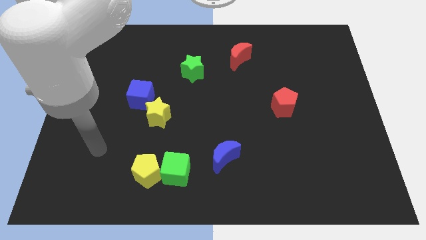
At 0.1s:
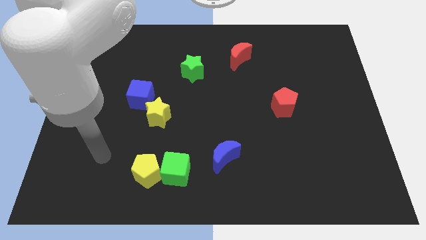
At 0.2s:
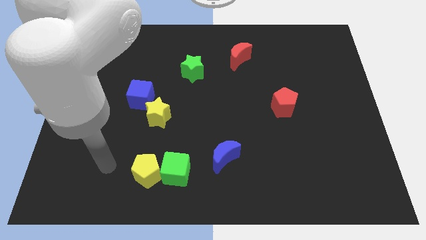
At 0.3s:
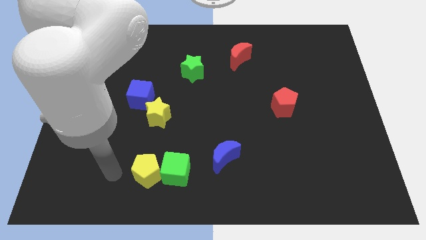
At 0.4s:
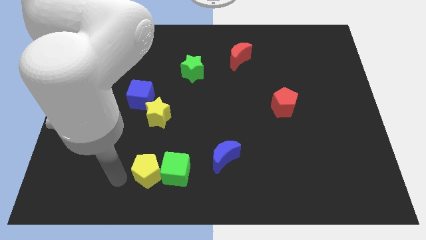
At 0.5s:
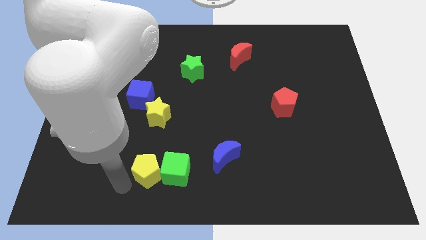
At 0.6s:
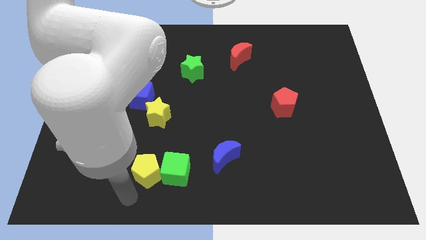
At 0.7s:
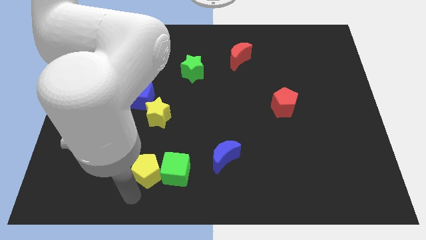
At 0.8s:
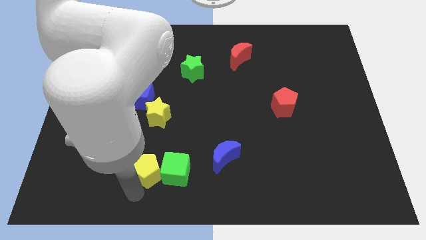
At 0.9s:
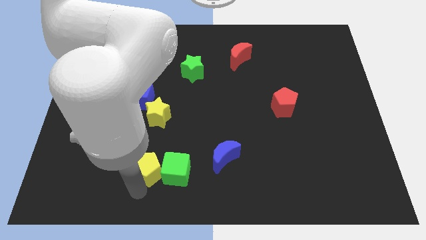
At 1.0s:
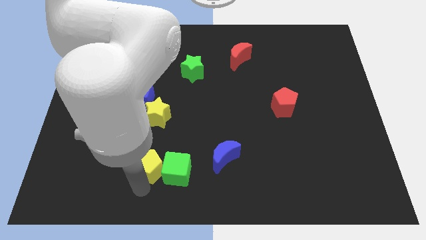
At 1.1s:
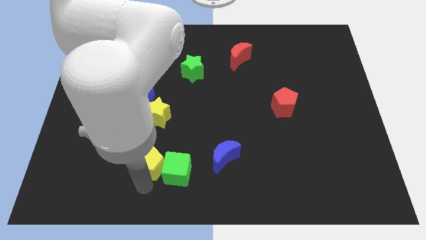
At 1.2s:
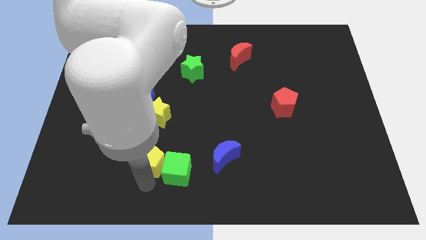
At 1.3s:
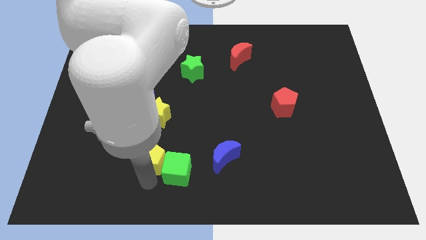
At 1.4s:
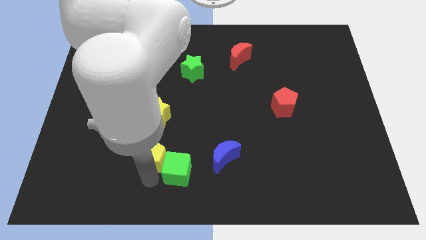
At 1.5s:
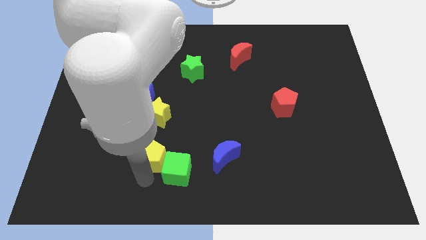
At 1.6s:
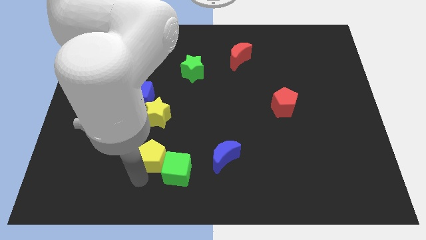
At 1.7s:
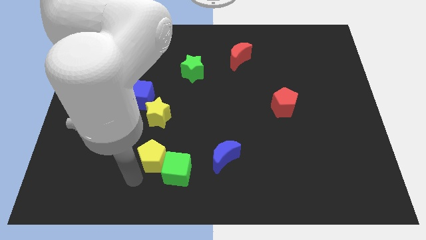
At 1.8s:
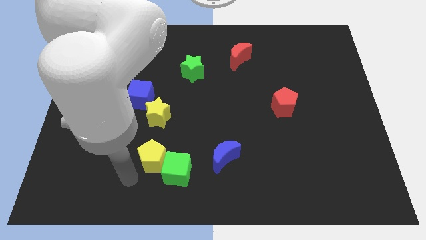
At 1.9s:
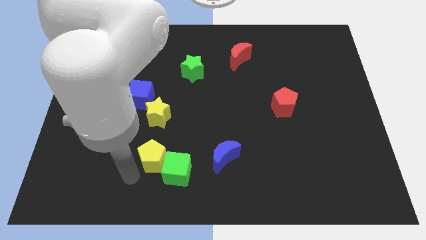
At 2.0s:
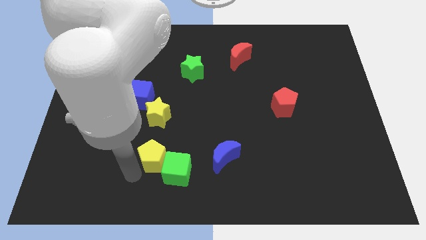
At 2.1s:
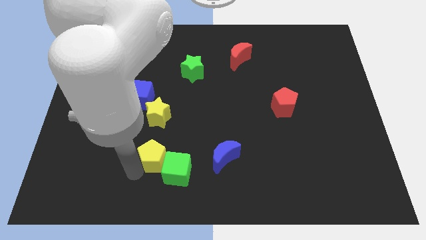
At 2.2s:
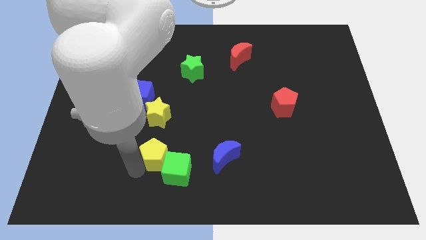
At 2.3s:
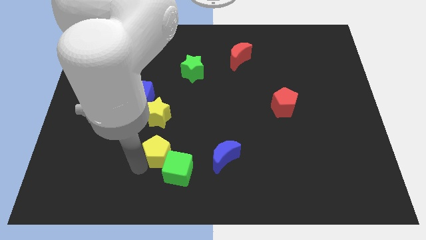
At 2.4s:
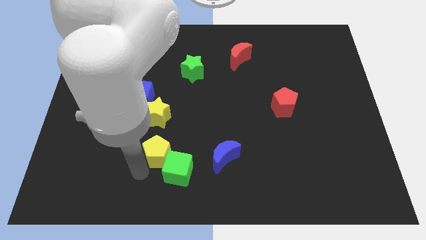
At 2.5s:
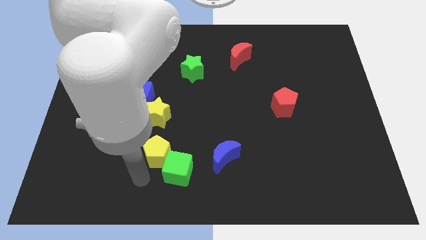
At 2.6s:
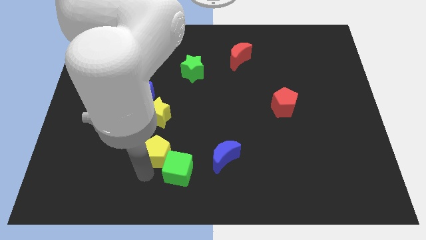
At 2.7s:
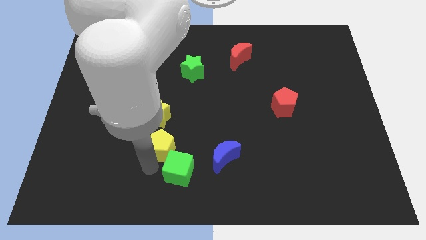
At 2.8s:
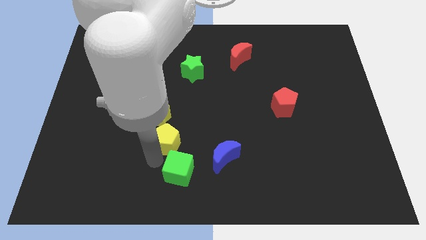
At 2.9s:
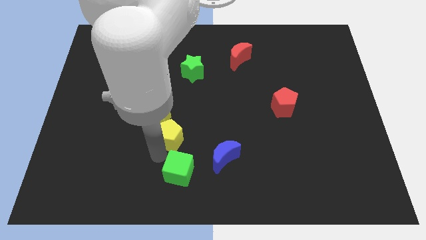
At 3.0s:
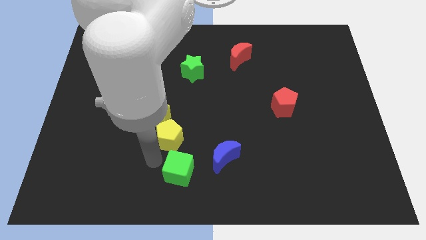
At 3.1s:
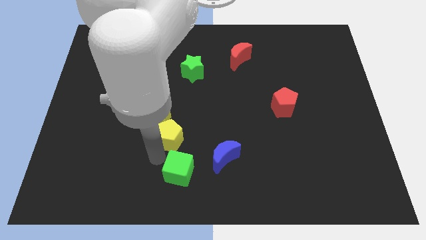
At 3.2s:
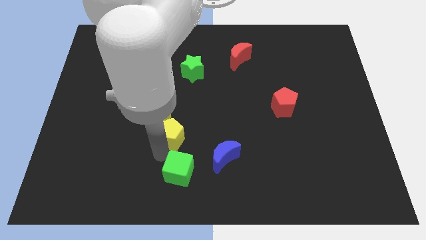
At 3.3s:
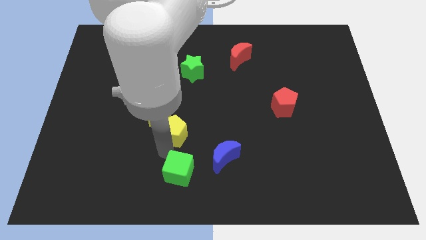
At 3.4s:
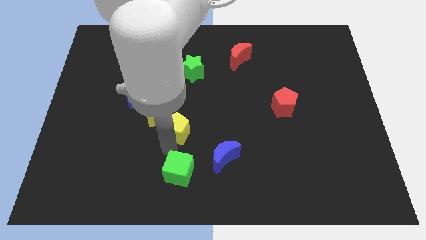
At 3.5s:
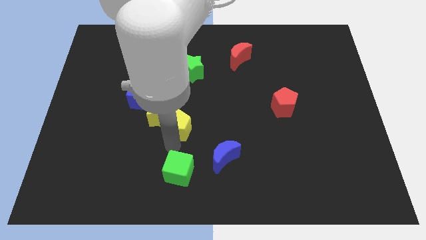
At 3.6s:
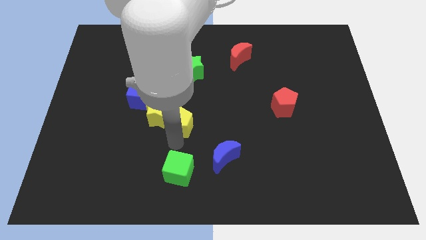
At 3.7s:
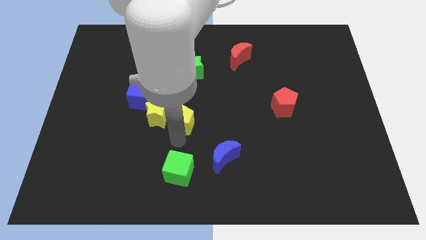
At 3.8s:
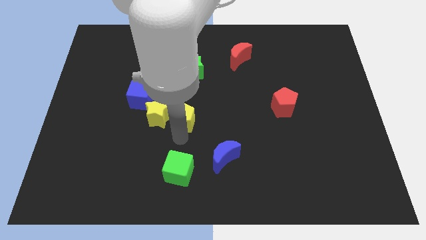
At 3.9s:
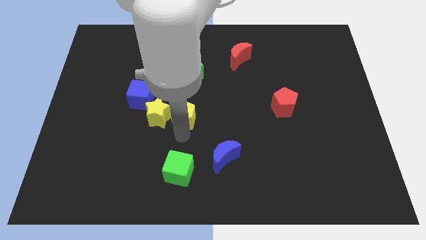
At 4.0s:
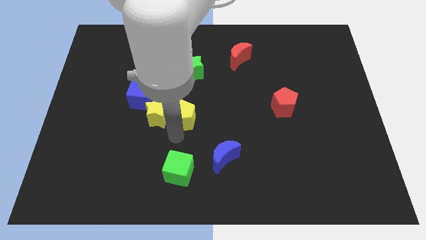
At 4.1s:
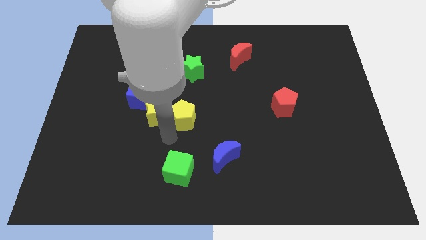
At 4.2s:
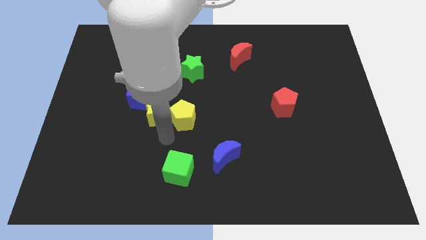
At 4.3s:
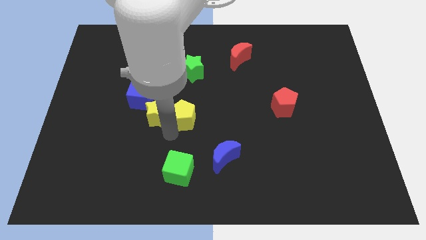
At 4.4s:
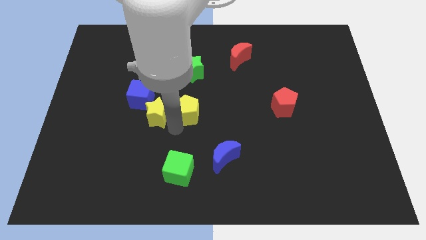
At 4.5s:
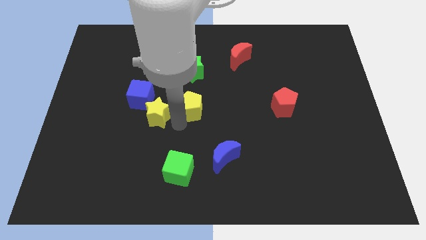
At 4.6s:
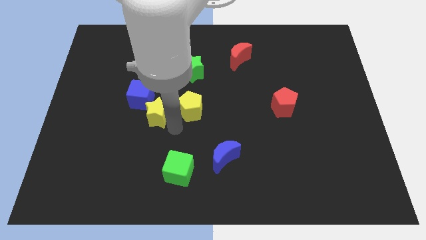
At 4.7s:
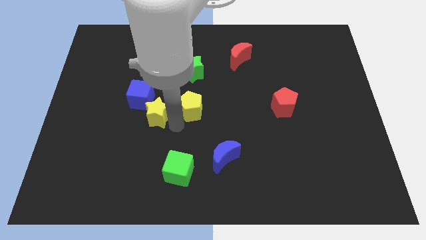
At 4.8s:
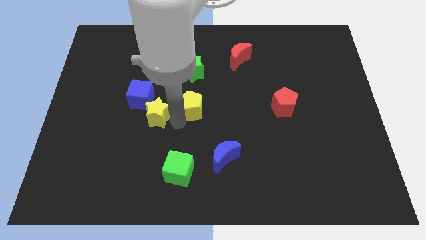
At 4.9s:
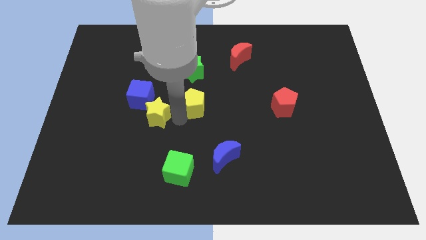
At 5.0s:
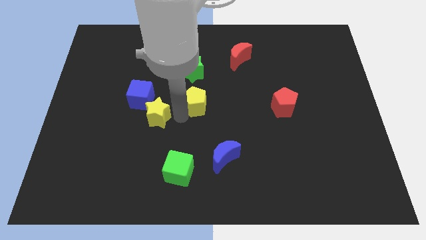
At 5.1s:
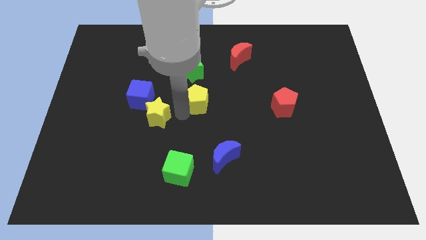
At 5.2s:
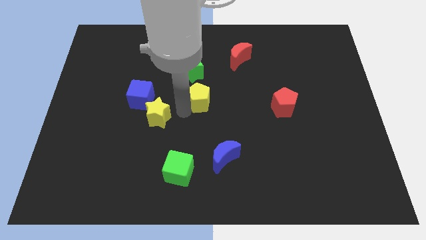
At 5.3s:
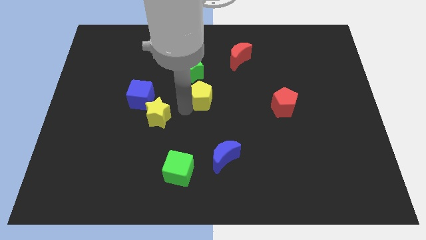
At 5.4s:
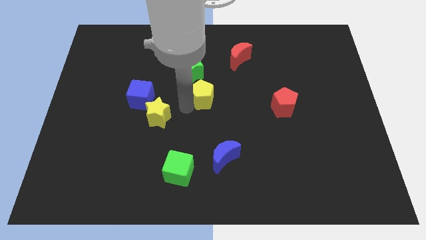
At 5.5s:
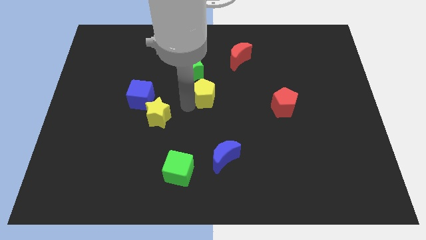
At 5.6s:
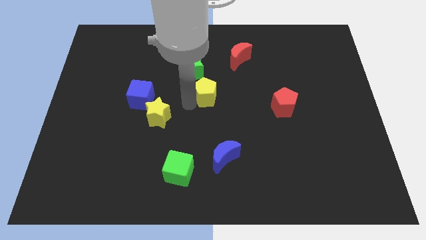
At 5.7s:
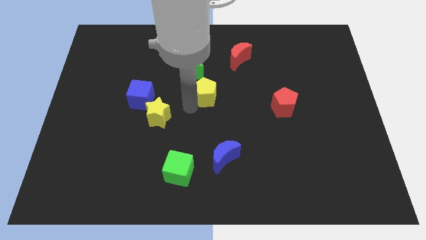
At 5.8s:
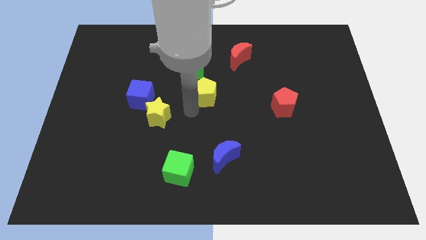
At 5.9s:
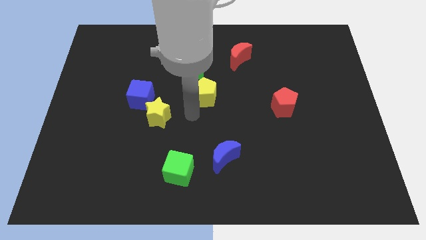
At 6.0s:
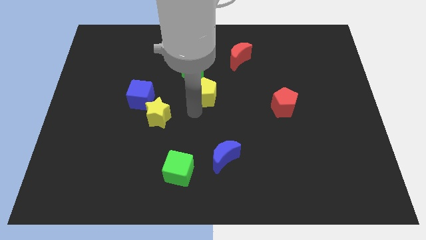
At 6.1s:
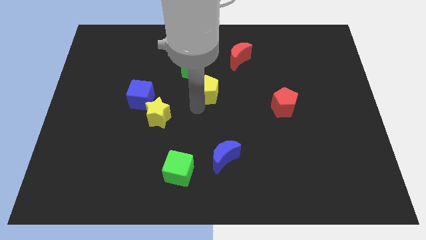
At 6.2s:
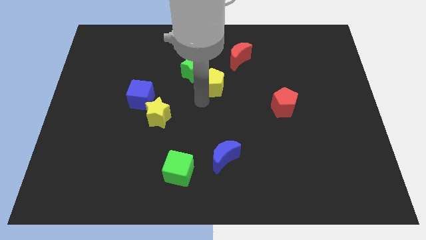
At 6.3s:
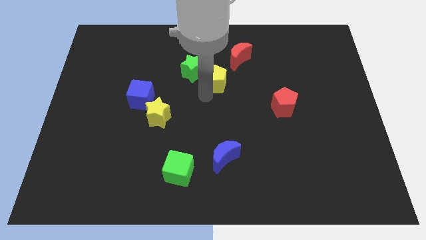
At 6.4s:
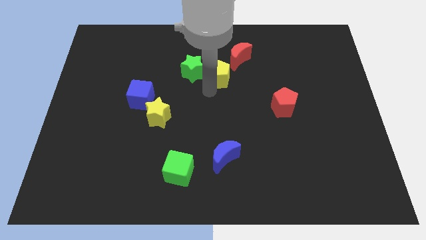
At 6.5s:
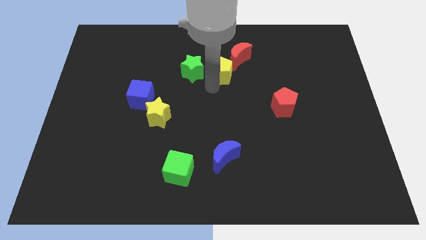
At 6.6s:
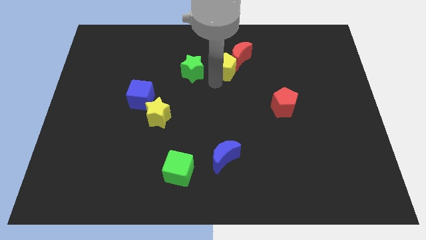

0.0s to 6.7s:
put the yellow pentagon towards the red moon

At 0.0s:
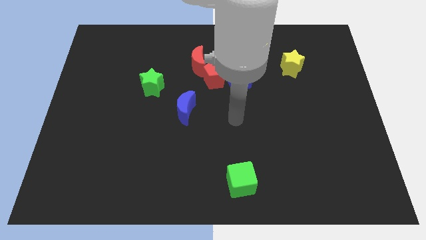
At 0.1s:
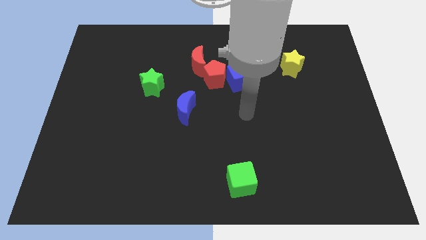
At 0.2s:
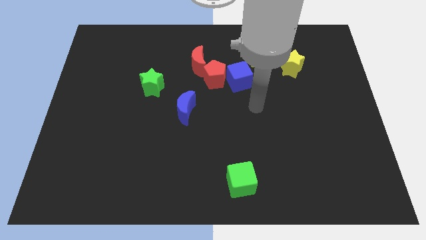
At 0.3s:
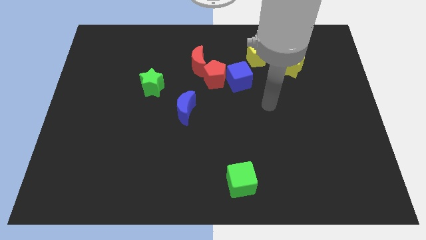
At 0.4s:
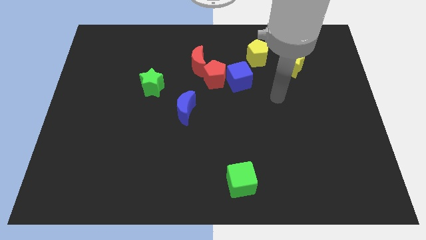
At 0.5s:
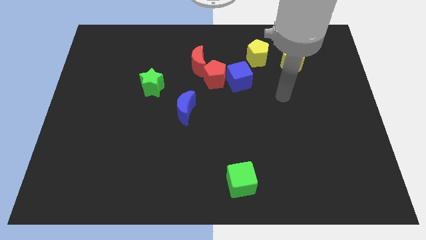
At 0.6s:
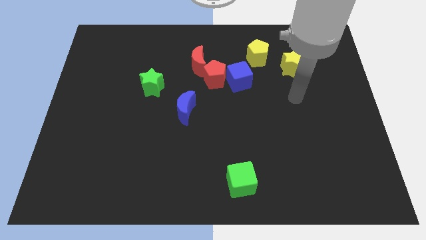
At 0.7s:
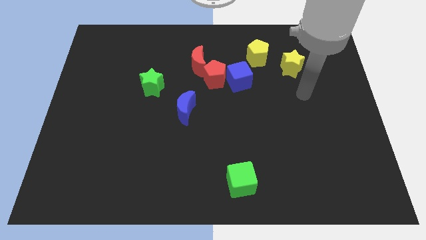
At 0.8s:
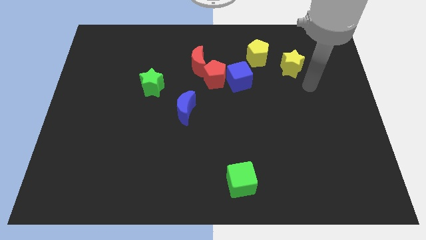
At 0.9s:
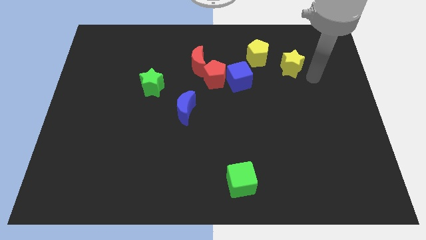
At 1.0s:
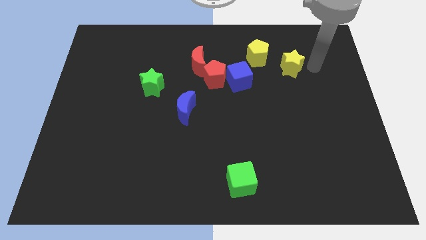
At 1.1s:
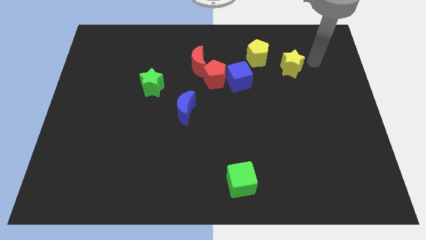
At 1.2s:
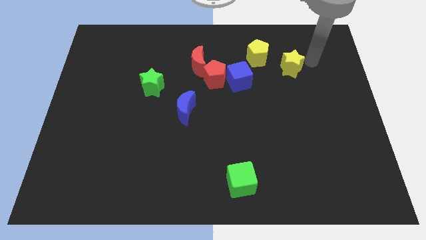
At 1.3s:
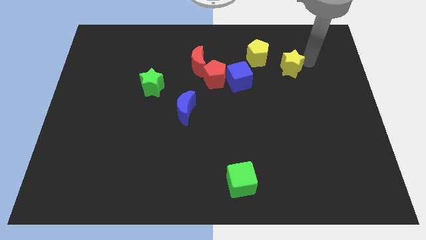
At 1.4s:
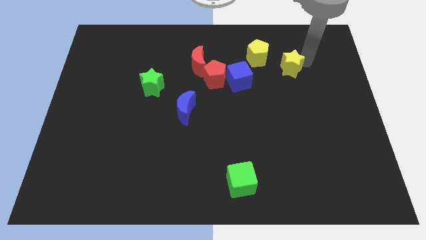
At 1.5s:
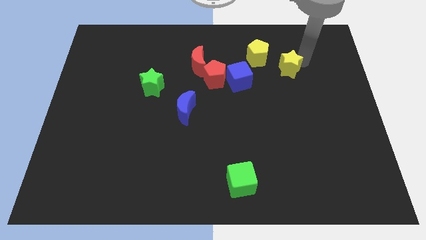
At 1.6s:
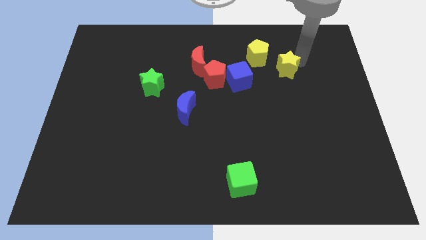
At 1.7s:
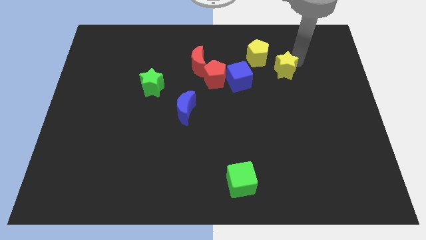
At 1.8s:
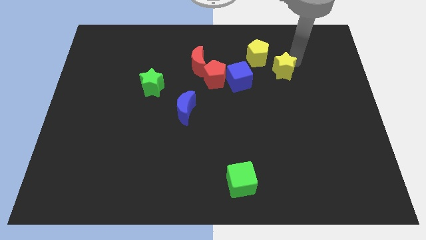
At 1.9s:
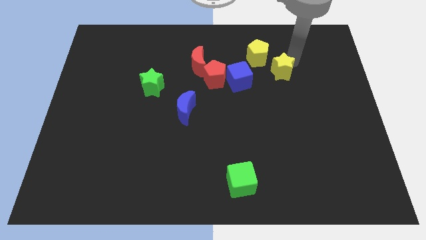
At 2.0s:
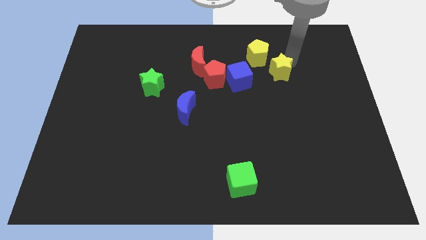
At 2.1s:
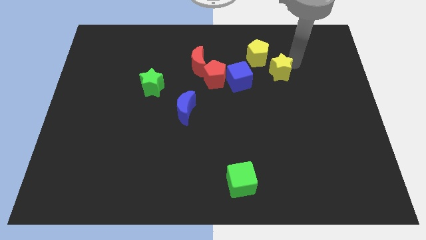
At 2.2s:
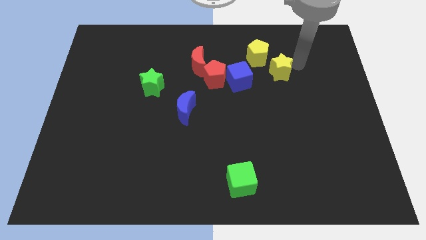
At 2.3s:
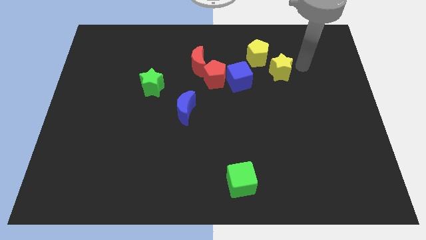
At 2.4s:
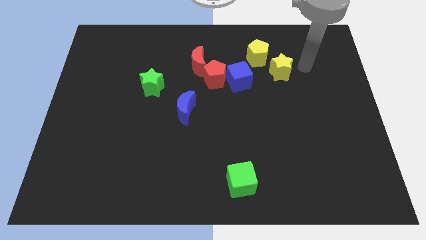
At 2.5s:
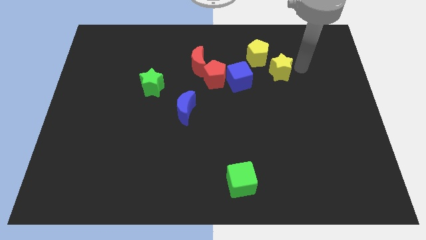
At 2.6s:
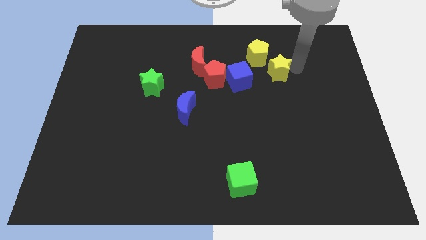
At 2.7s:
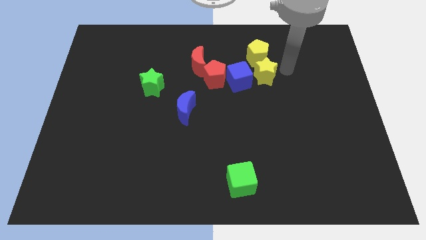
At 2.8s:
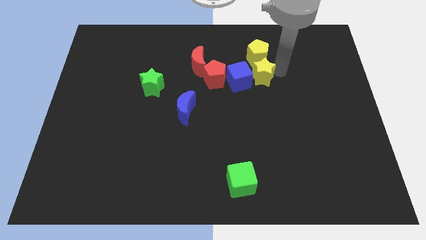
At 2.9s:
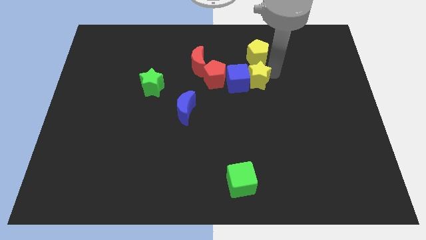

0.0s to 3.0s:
put the yellow star next to the blue cube
